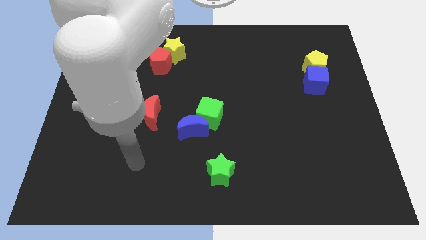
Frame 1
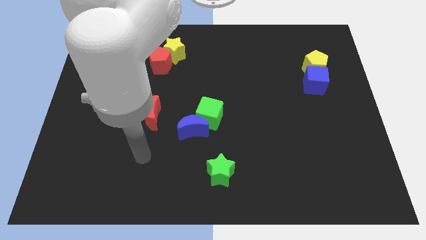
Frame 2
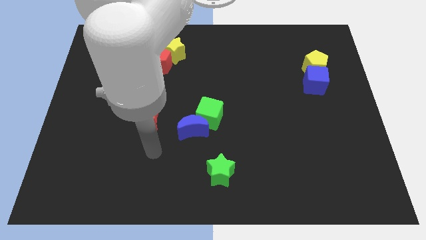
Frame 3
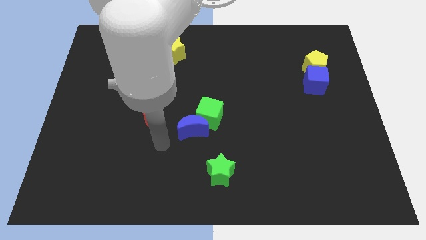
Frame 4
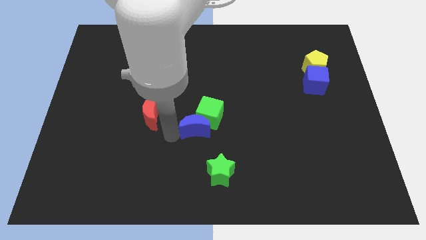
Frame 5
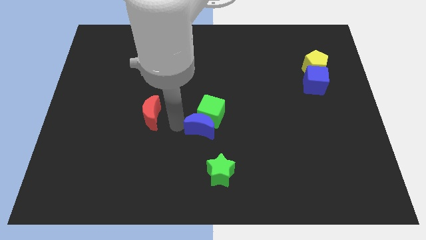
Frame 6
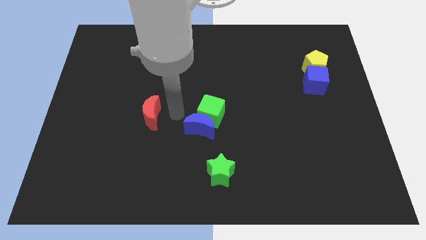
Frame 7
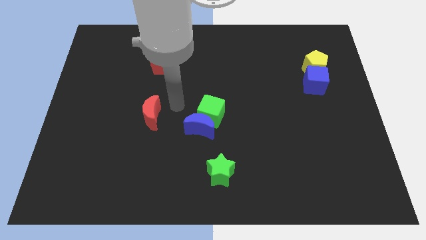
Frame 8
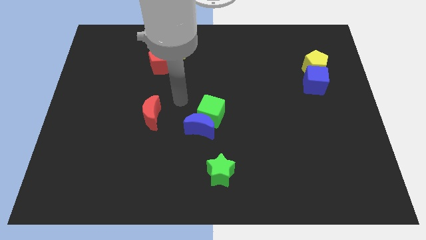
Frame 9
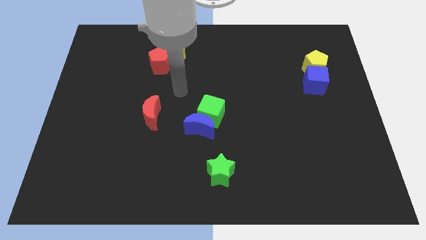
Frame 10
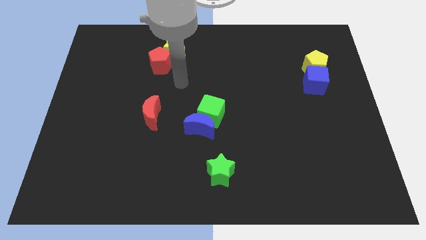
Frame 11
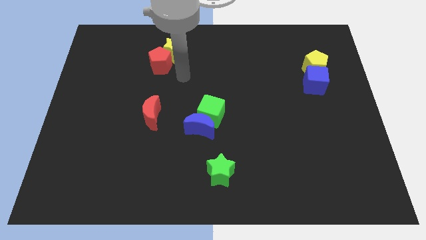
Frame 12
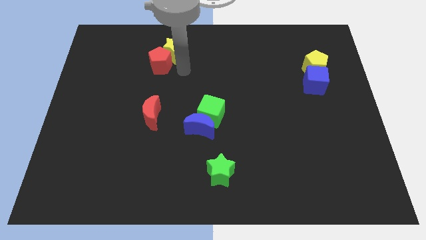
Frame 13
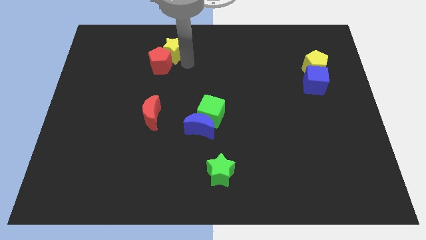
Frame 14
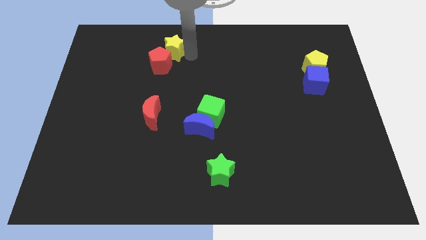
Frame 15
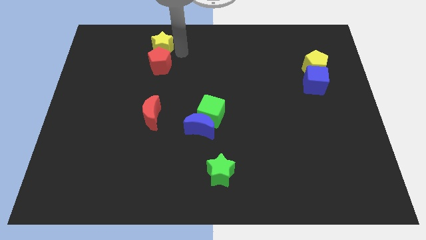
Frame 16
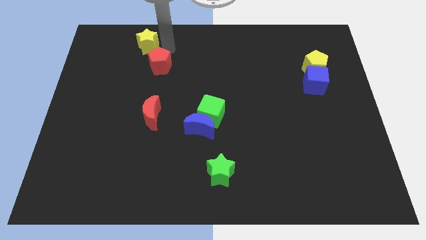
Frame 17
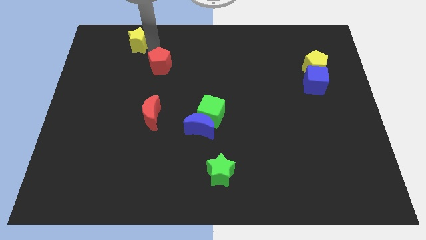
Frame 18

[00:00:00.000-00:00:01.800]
separate the red pentagon from the yellow star

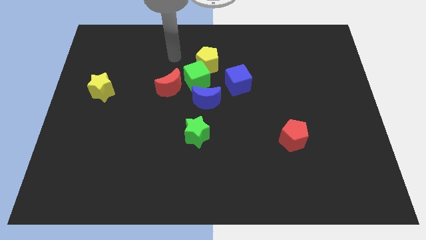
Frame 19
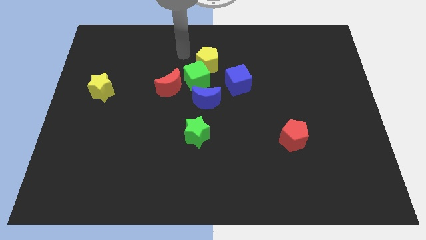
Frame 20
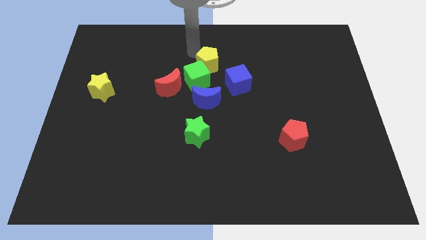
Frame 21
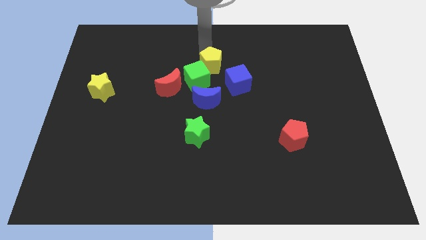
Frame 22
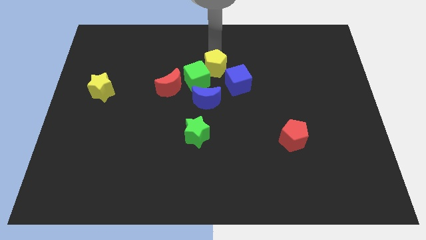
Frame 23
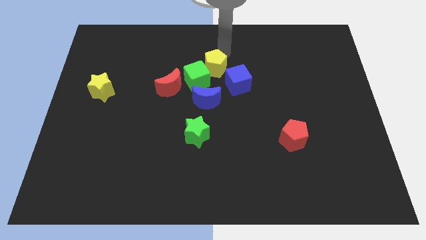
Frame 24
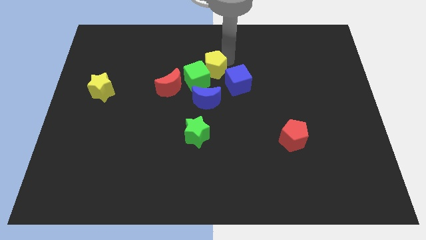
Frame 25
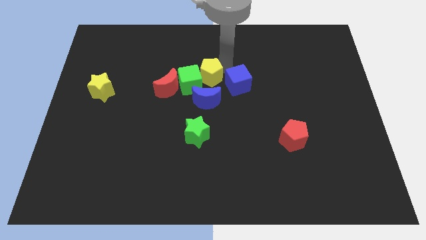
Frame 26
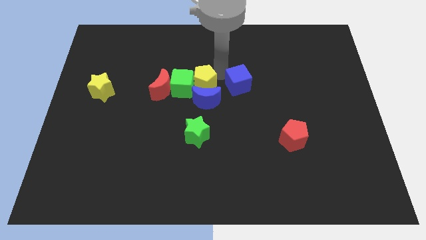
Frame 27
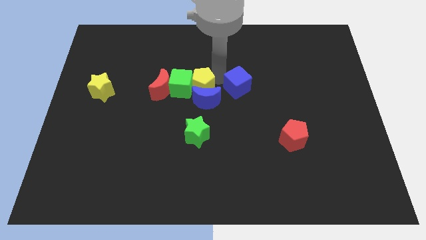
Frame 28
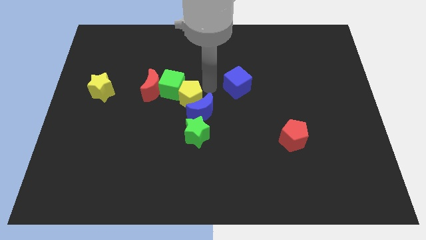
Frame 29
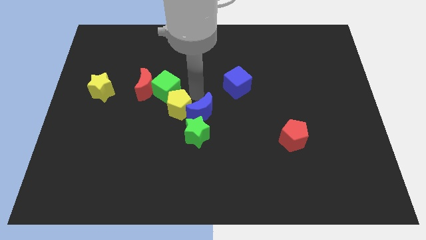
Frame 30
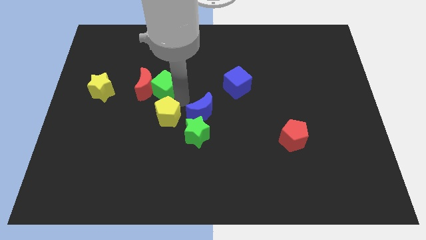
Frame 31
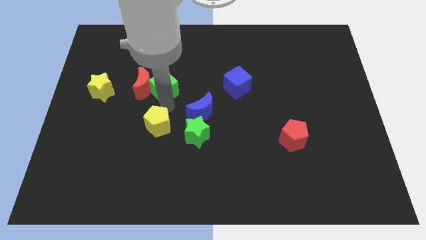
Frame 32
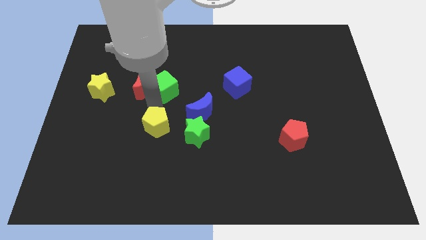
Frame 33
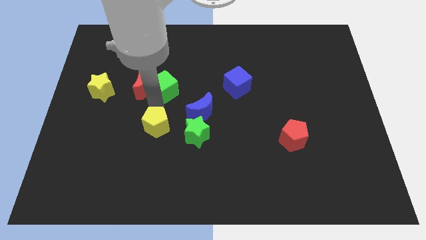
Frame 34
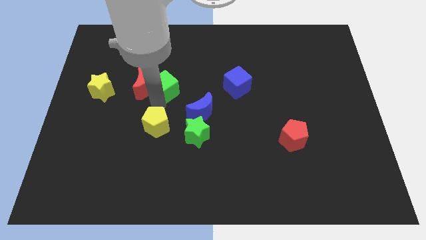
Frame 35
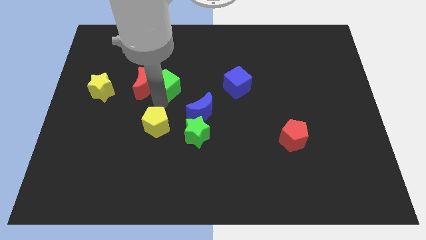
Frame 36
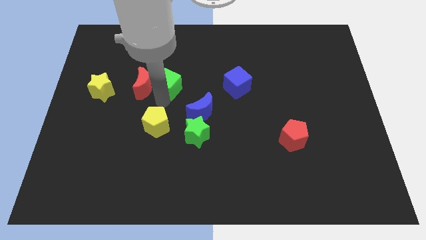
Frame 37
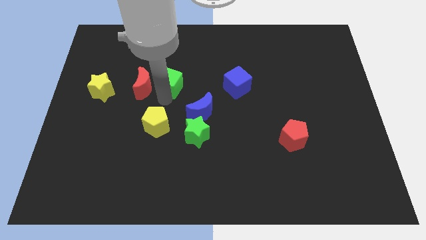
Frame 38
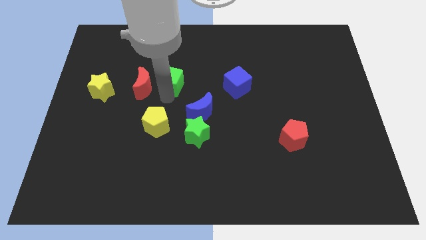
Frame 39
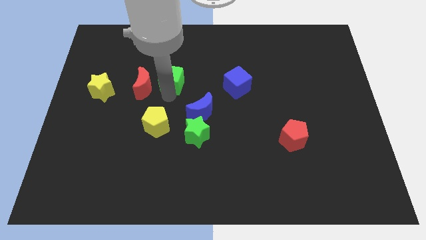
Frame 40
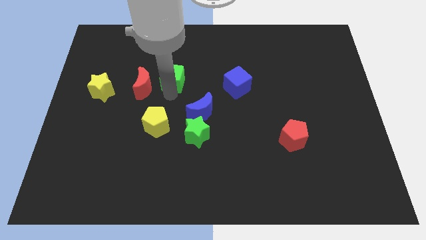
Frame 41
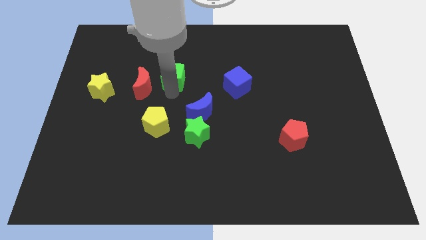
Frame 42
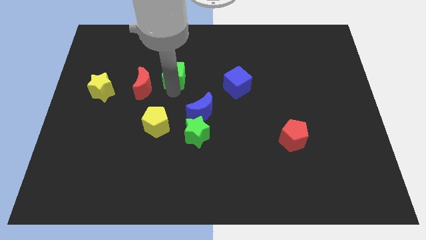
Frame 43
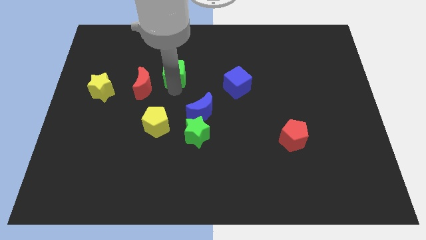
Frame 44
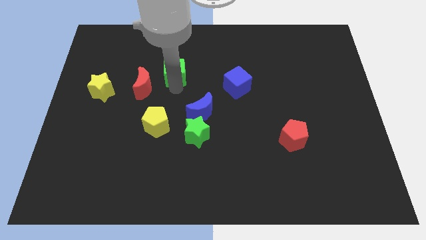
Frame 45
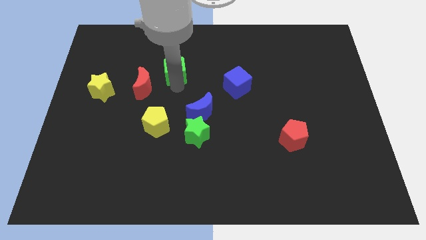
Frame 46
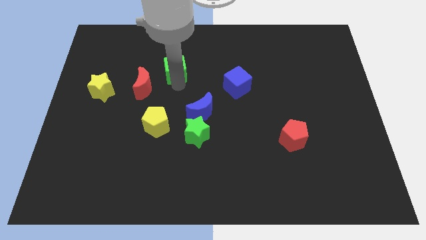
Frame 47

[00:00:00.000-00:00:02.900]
move the green cube away from the clump

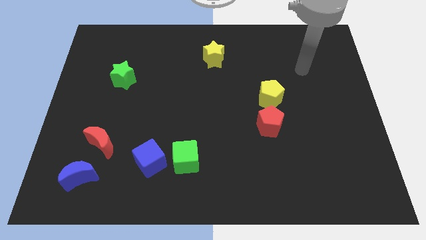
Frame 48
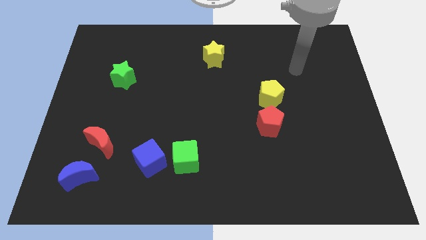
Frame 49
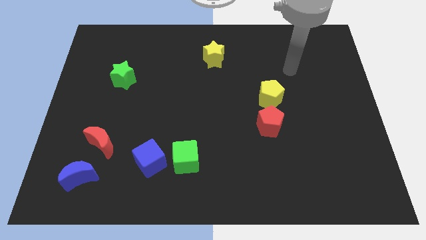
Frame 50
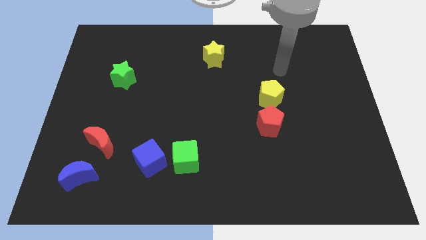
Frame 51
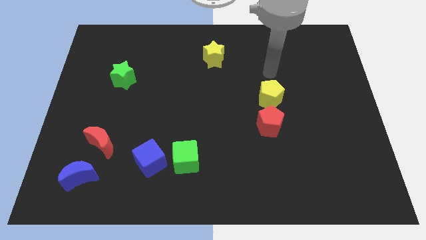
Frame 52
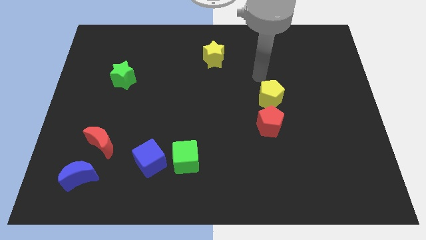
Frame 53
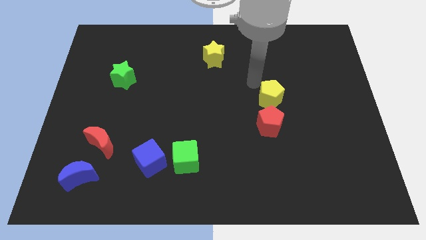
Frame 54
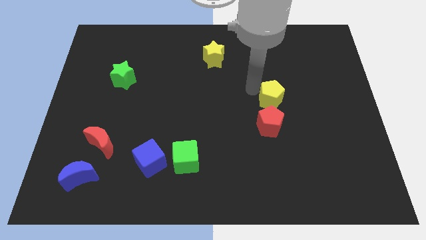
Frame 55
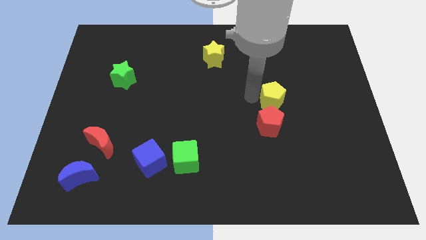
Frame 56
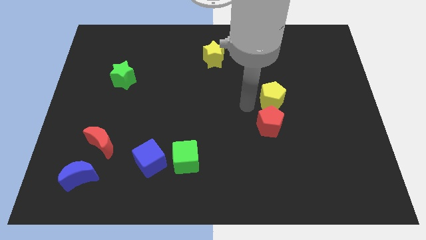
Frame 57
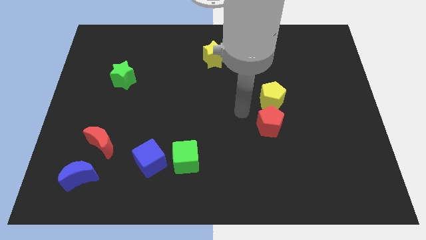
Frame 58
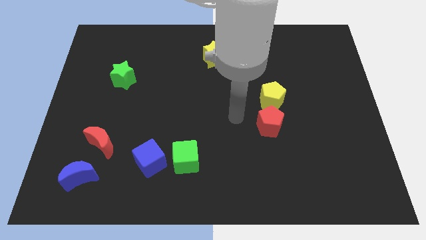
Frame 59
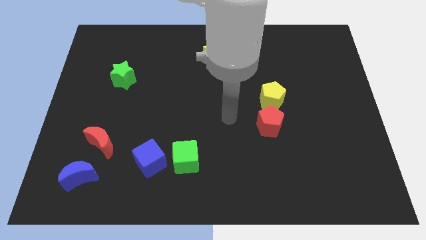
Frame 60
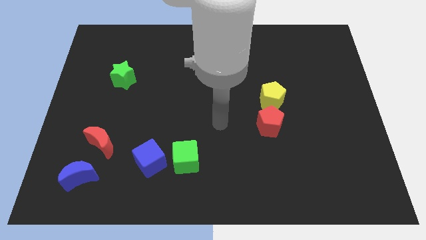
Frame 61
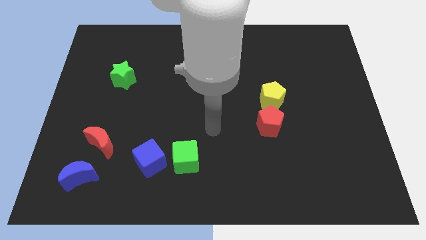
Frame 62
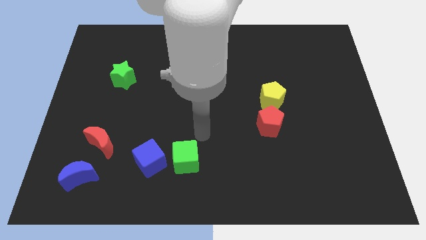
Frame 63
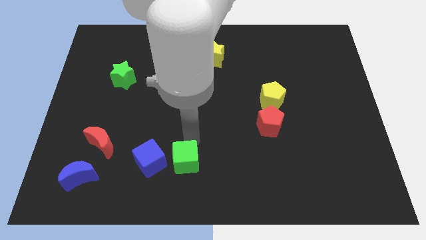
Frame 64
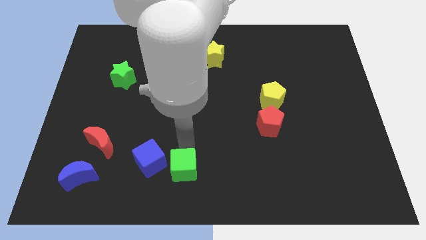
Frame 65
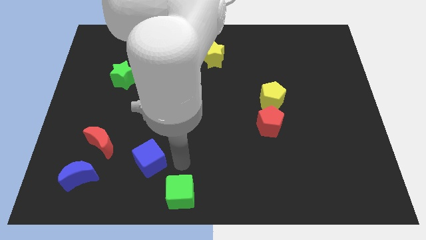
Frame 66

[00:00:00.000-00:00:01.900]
pull the blue cube apart from the green cube

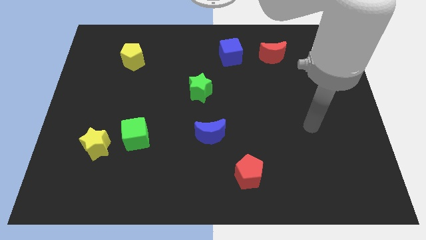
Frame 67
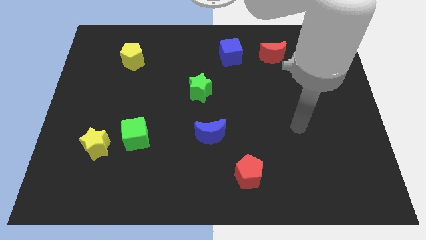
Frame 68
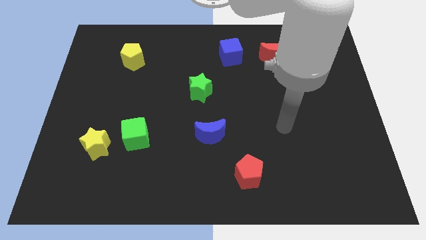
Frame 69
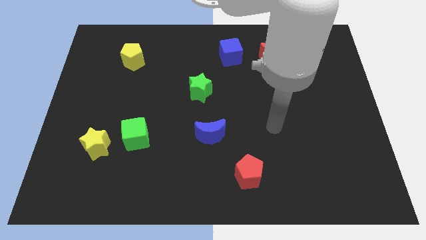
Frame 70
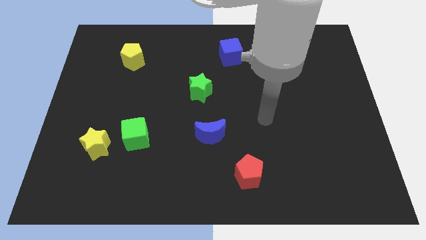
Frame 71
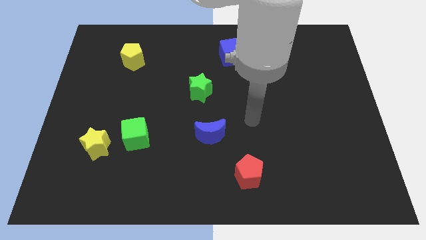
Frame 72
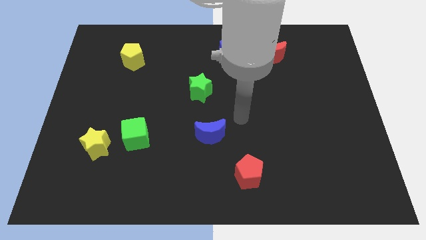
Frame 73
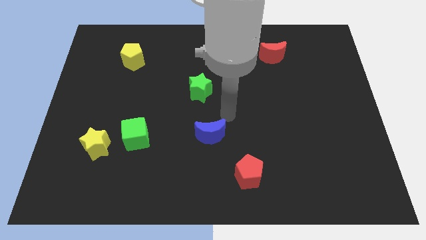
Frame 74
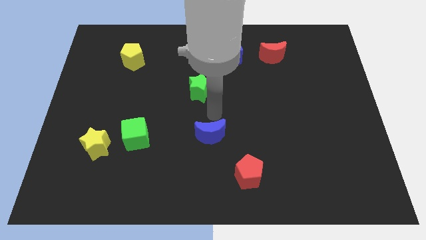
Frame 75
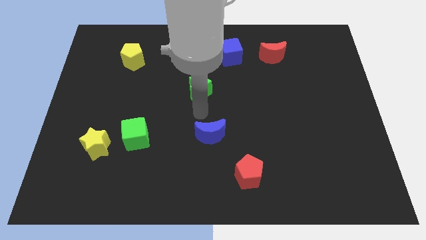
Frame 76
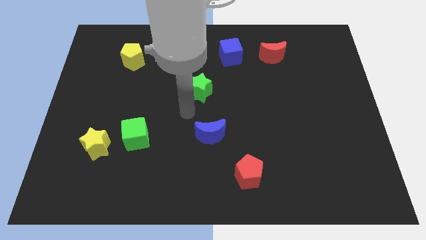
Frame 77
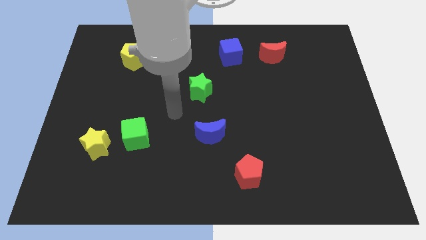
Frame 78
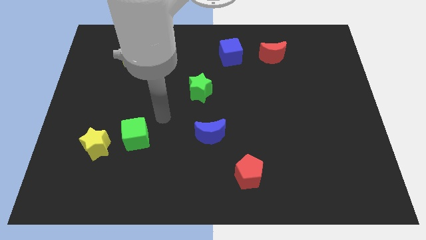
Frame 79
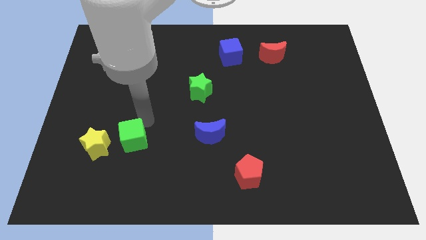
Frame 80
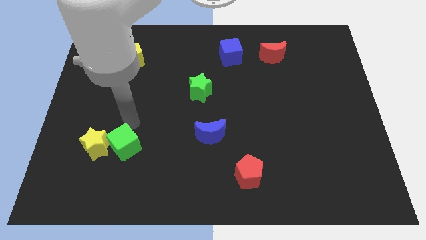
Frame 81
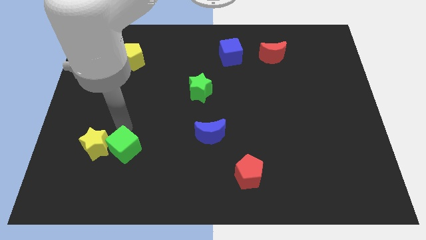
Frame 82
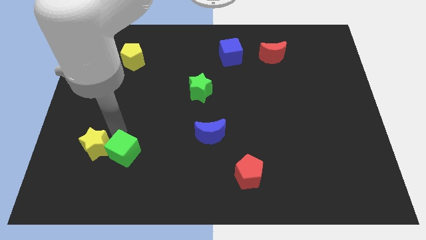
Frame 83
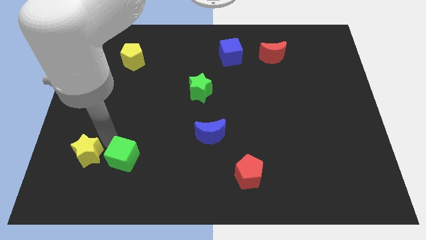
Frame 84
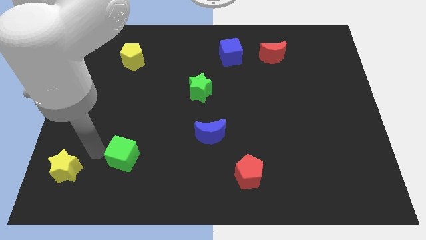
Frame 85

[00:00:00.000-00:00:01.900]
pull the green cube apart from the yellow star

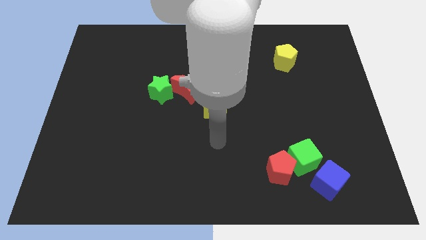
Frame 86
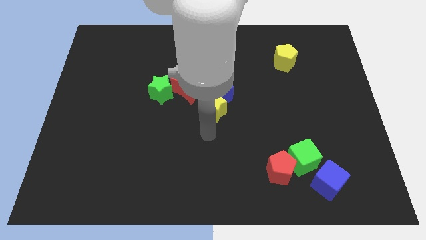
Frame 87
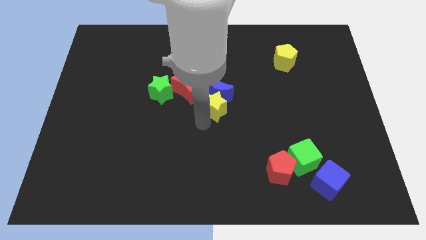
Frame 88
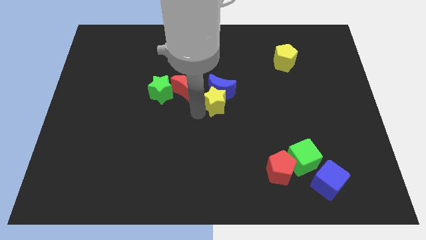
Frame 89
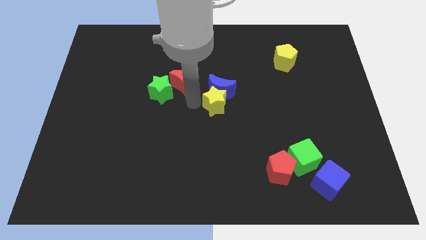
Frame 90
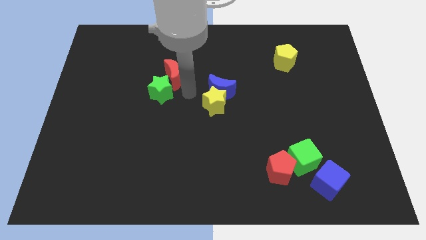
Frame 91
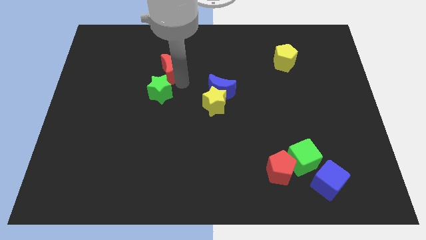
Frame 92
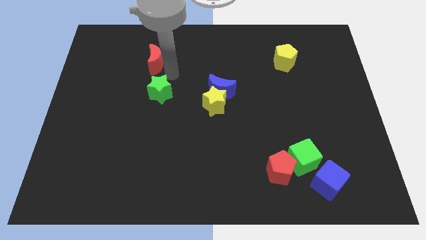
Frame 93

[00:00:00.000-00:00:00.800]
pull the green star apart from the red moon
